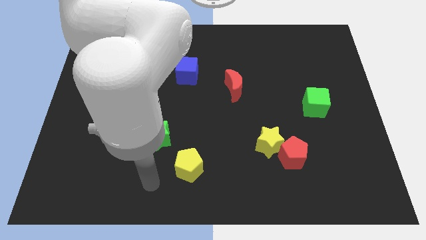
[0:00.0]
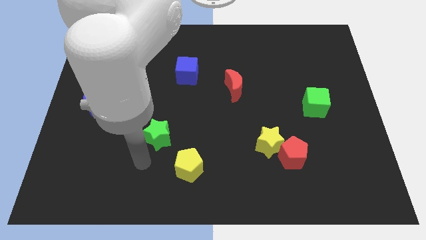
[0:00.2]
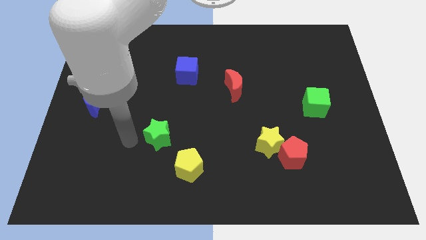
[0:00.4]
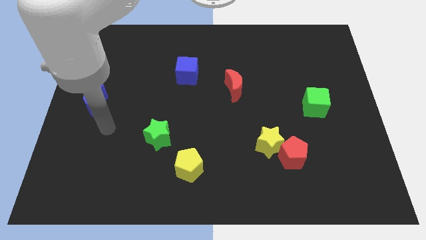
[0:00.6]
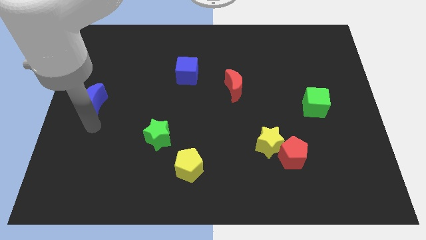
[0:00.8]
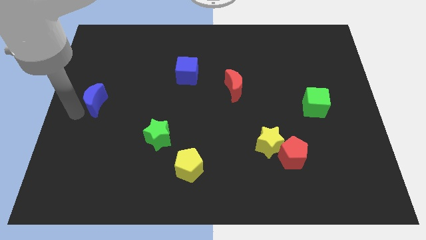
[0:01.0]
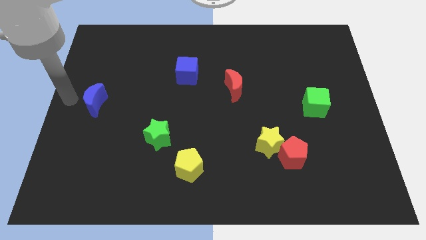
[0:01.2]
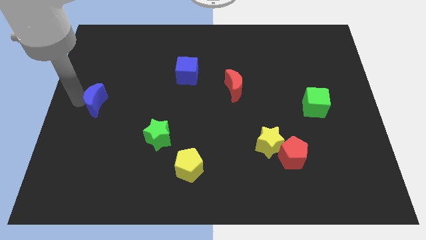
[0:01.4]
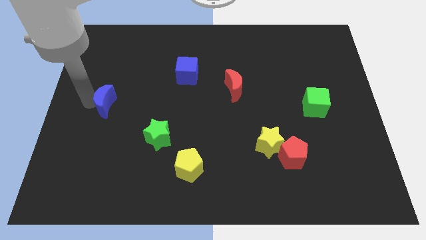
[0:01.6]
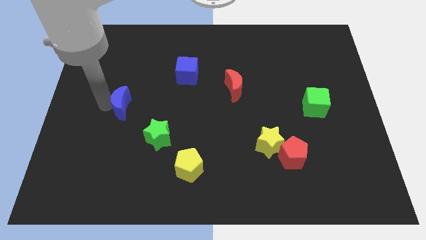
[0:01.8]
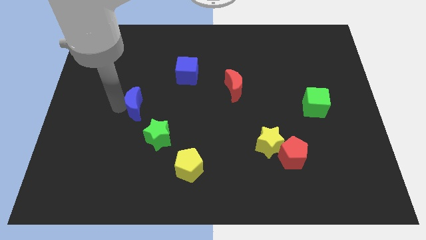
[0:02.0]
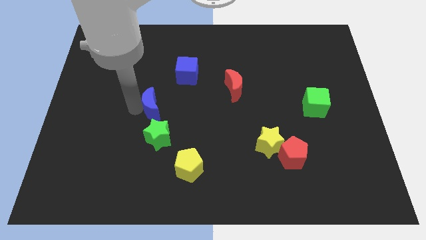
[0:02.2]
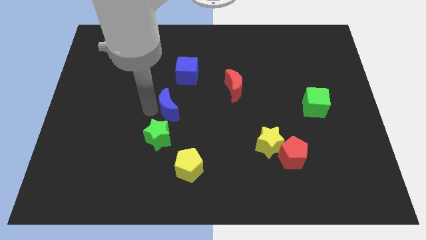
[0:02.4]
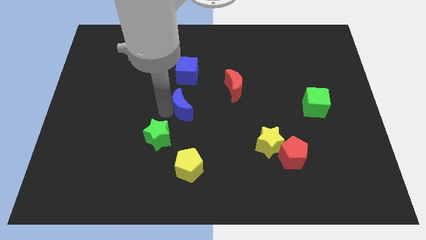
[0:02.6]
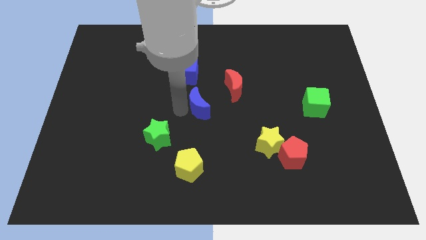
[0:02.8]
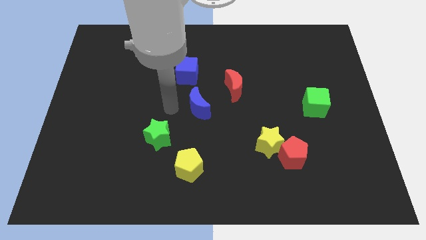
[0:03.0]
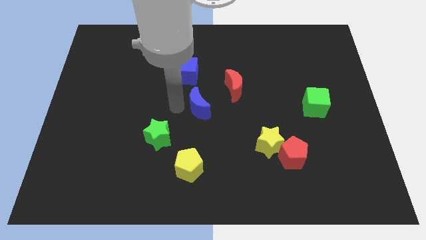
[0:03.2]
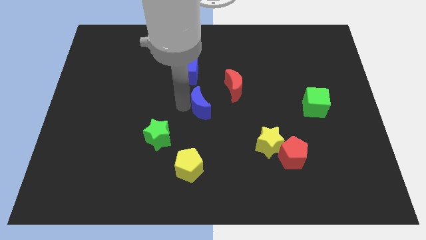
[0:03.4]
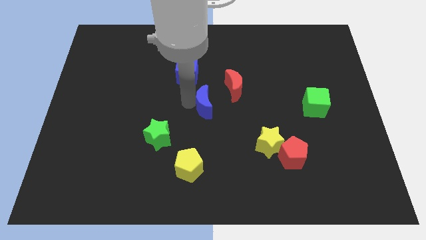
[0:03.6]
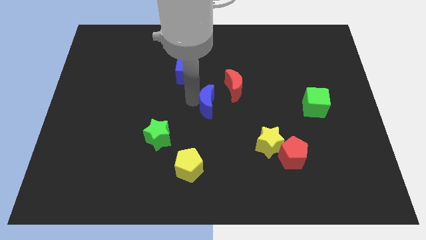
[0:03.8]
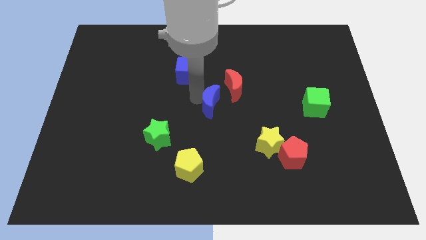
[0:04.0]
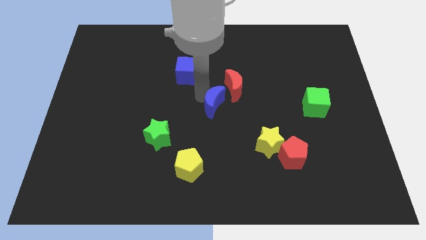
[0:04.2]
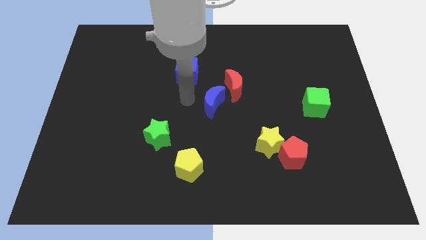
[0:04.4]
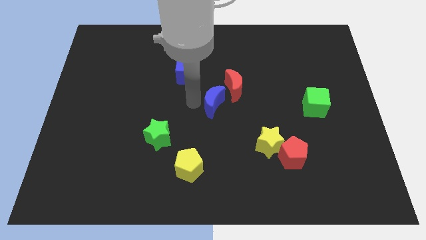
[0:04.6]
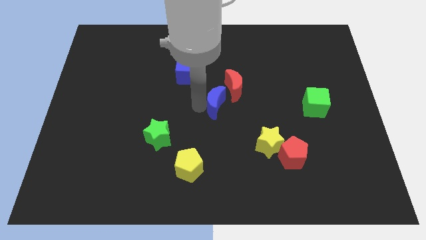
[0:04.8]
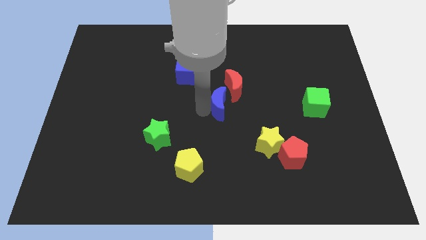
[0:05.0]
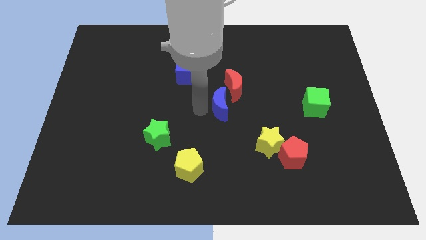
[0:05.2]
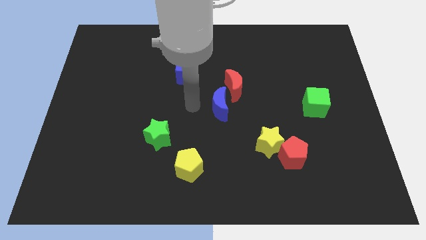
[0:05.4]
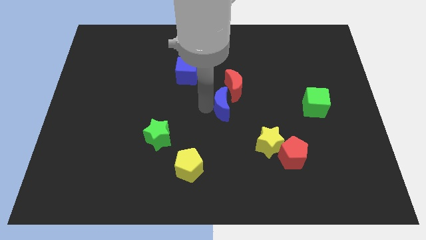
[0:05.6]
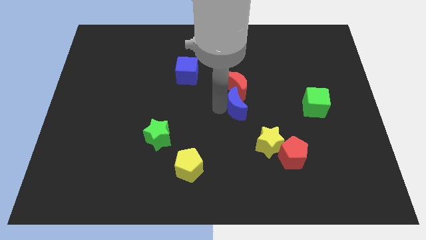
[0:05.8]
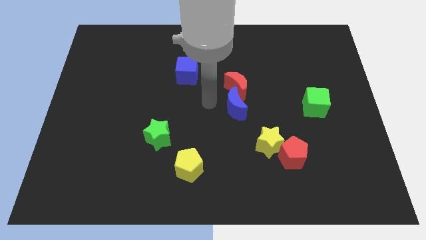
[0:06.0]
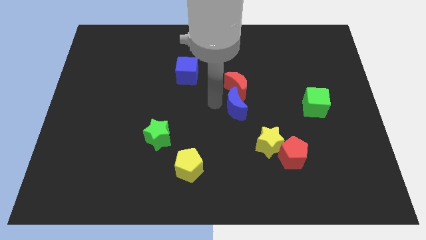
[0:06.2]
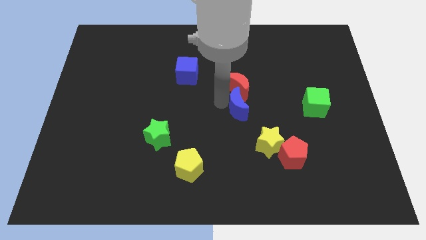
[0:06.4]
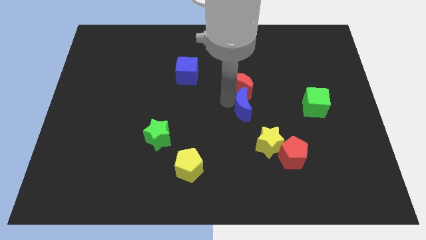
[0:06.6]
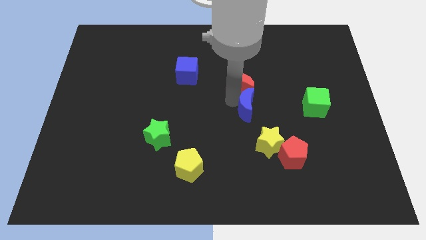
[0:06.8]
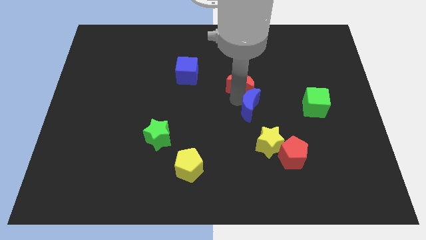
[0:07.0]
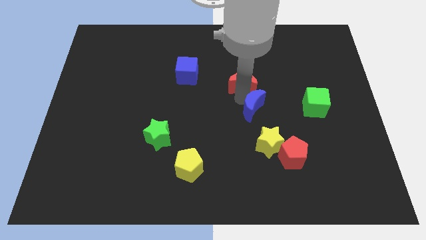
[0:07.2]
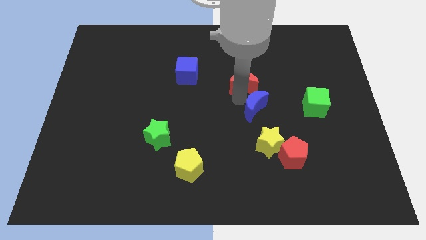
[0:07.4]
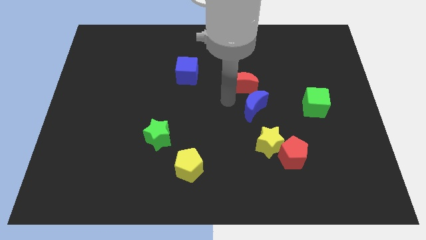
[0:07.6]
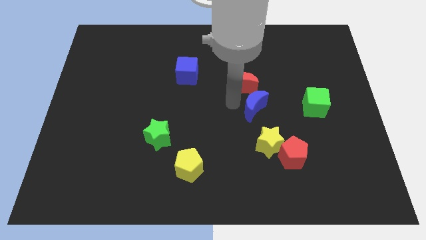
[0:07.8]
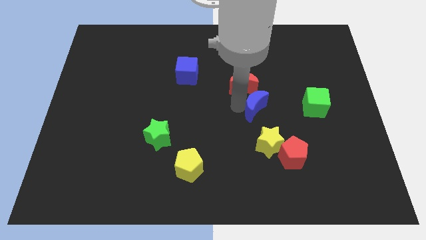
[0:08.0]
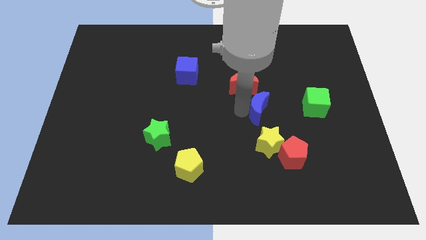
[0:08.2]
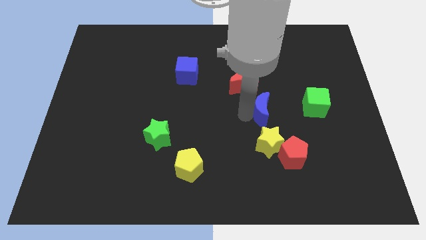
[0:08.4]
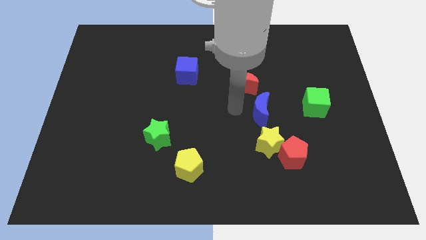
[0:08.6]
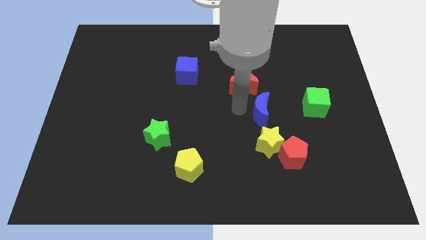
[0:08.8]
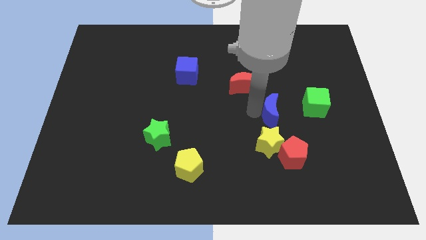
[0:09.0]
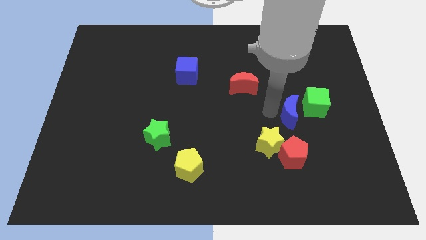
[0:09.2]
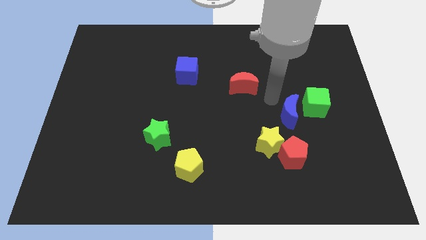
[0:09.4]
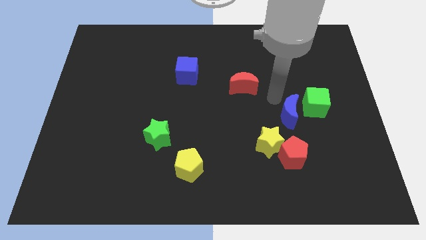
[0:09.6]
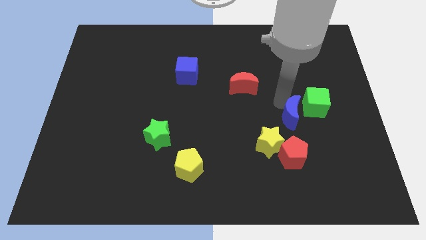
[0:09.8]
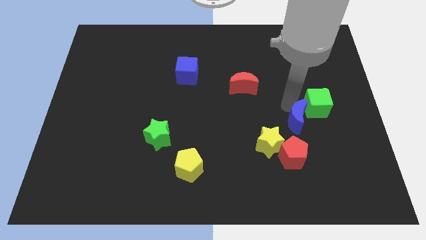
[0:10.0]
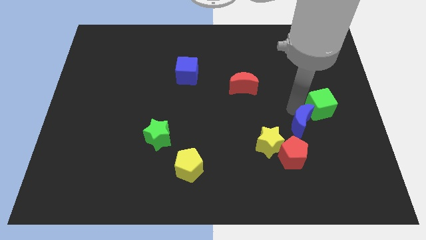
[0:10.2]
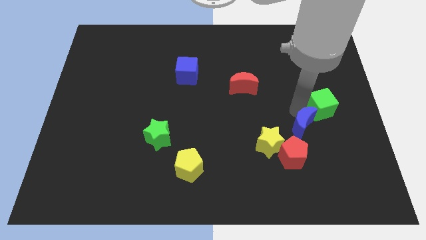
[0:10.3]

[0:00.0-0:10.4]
push the blue moon to the right side of the yellow star

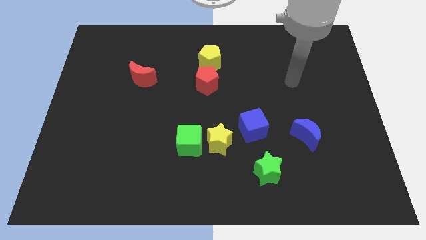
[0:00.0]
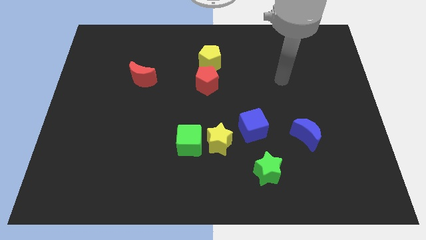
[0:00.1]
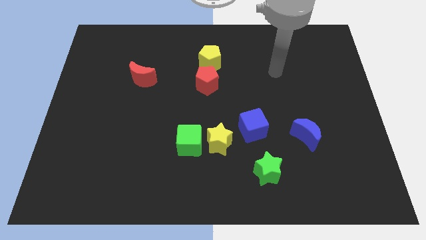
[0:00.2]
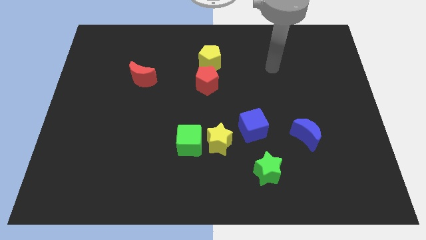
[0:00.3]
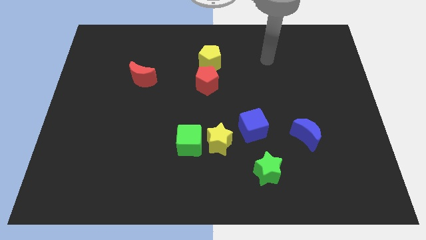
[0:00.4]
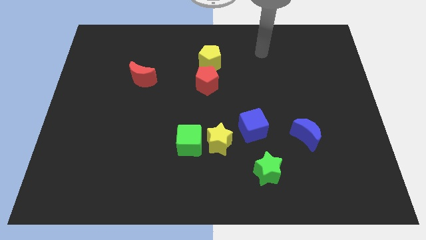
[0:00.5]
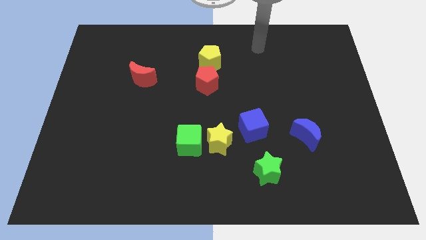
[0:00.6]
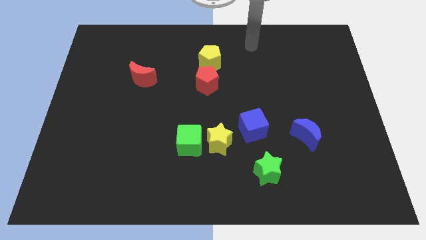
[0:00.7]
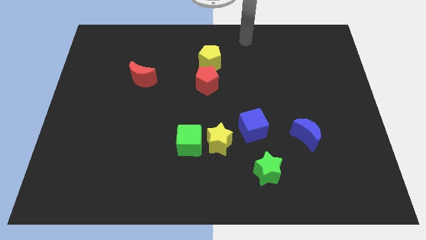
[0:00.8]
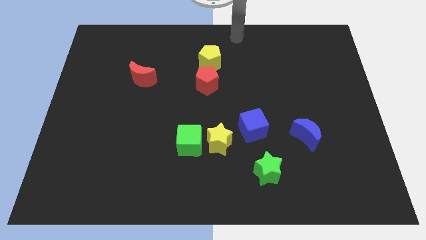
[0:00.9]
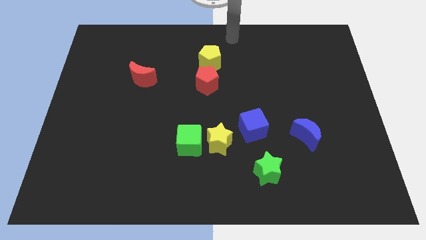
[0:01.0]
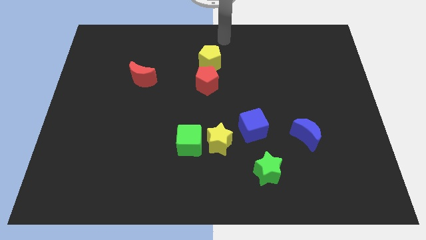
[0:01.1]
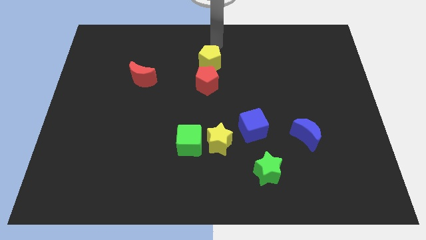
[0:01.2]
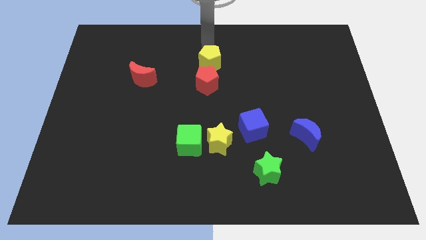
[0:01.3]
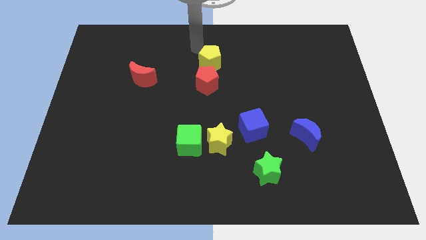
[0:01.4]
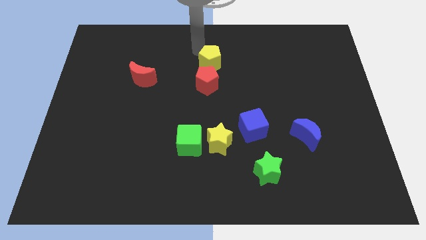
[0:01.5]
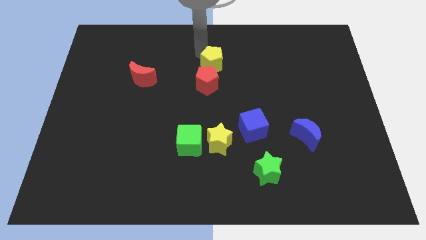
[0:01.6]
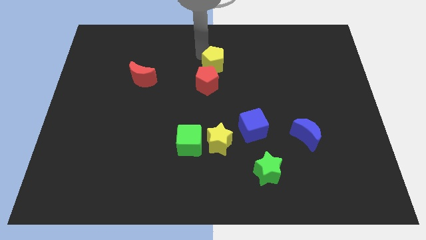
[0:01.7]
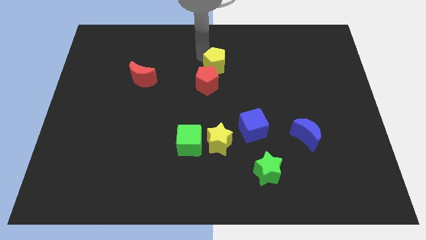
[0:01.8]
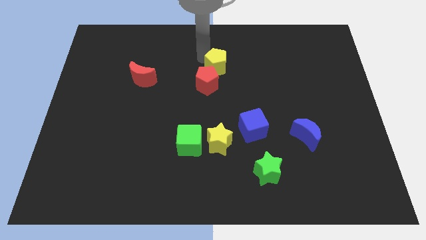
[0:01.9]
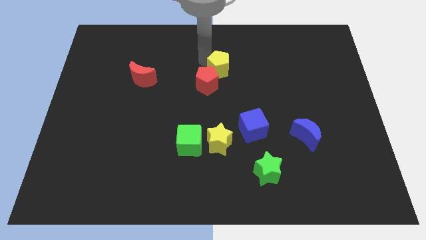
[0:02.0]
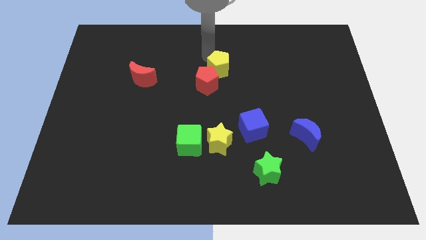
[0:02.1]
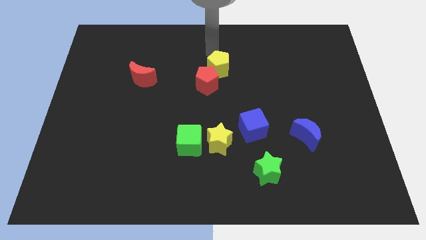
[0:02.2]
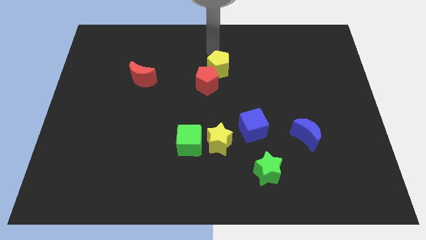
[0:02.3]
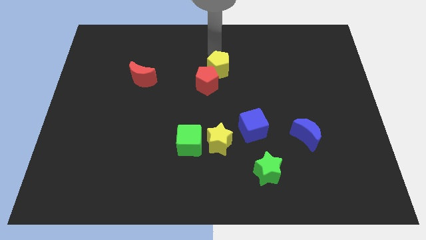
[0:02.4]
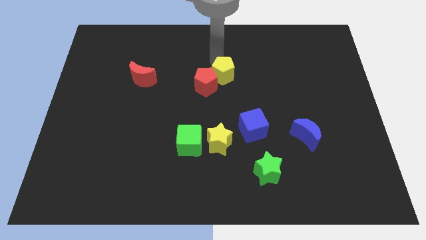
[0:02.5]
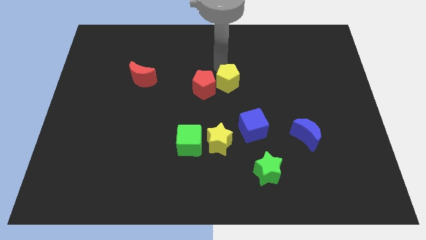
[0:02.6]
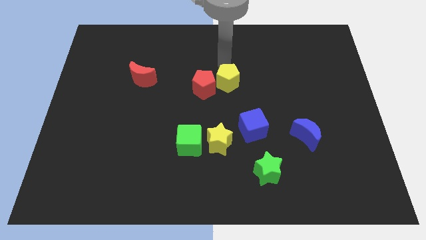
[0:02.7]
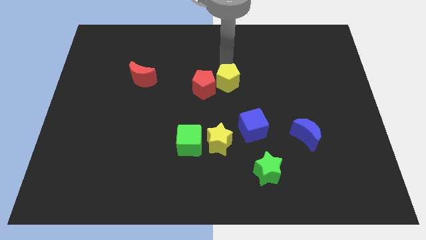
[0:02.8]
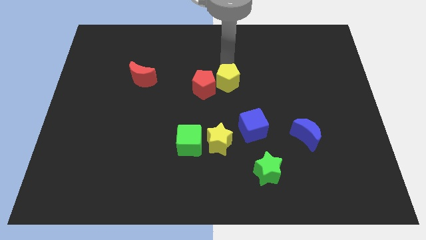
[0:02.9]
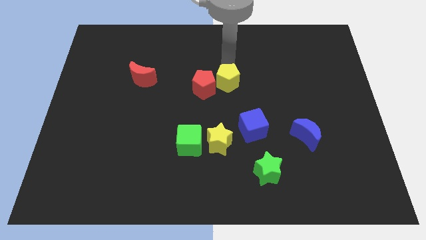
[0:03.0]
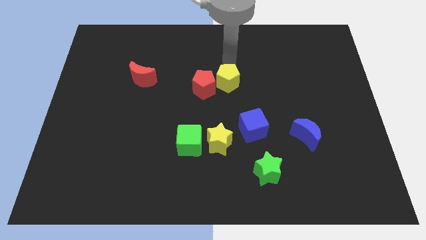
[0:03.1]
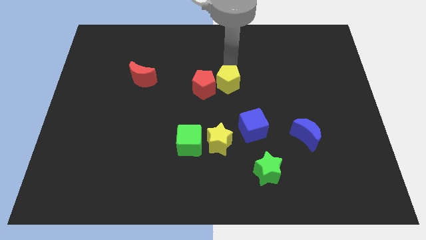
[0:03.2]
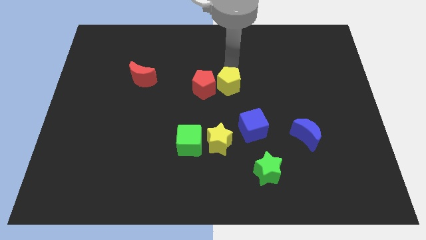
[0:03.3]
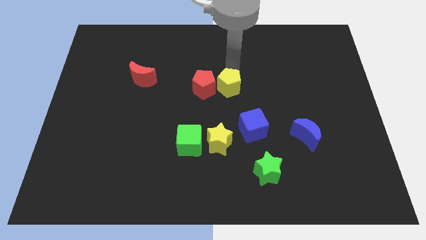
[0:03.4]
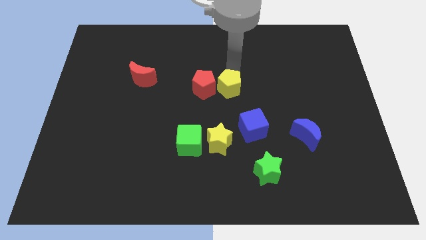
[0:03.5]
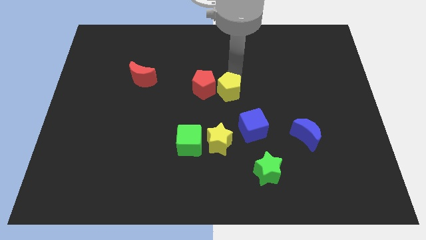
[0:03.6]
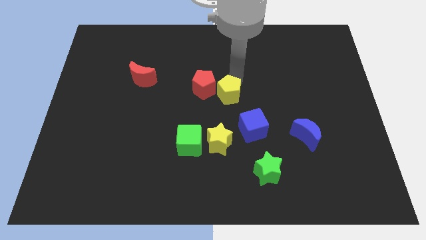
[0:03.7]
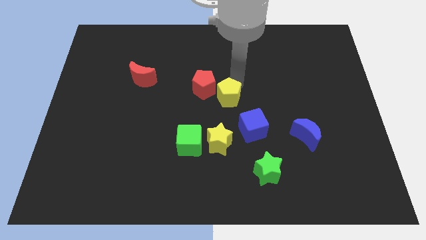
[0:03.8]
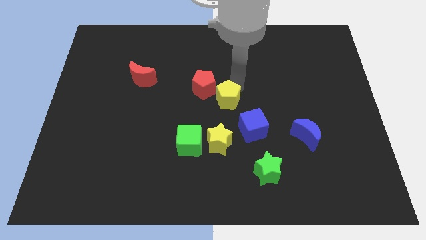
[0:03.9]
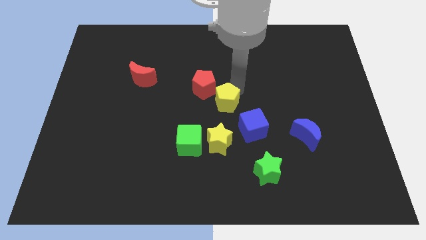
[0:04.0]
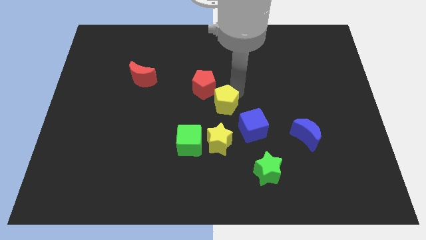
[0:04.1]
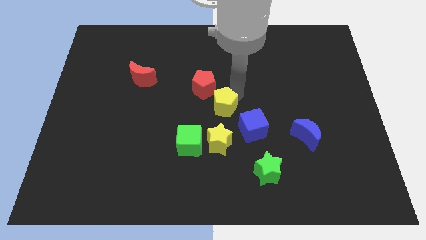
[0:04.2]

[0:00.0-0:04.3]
slide the yellow pentagon diagonally up and to the right of the green cube
